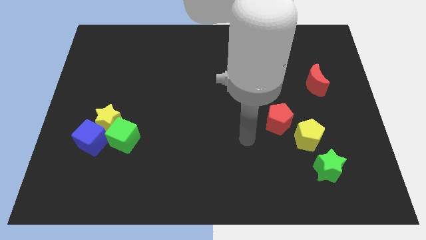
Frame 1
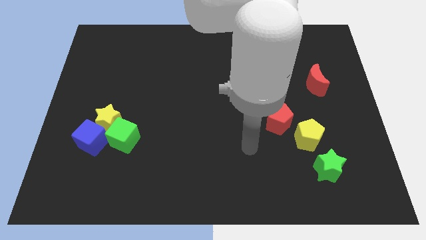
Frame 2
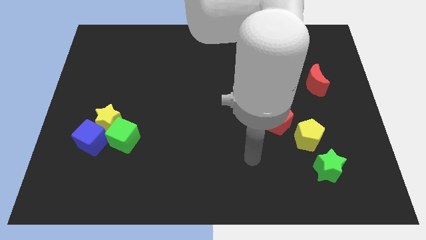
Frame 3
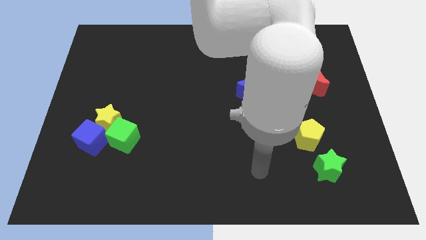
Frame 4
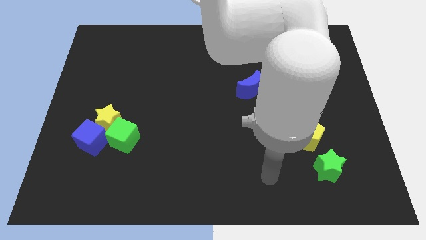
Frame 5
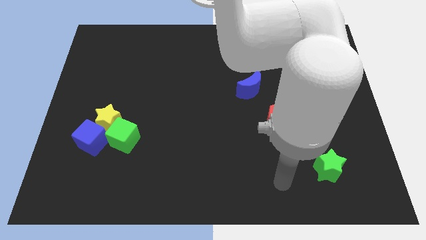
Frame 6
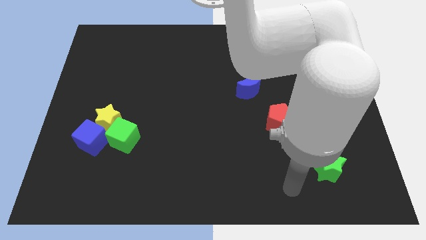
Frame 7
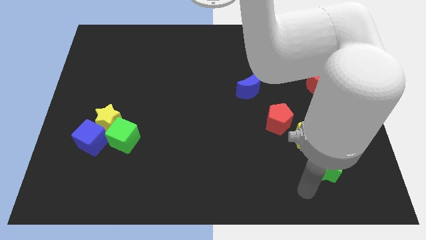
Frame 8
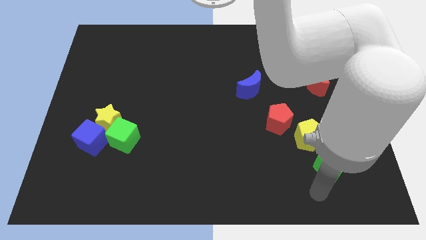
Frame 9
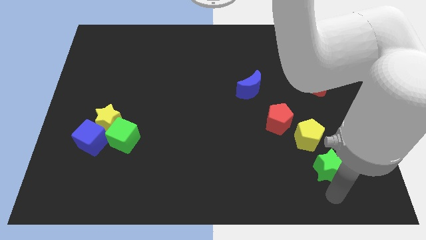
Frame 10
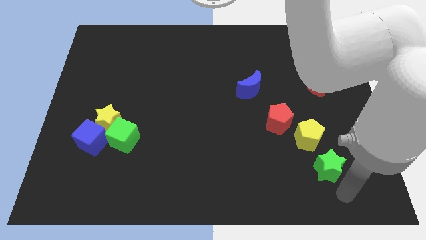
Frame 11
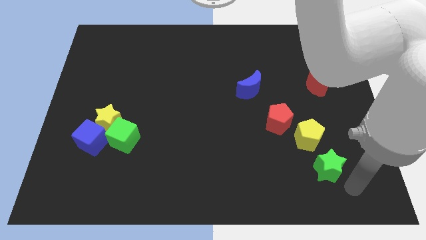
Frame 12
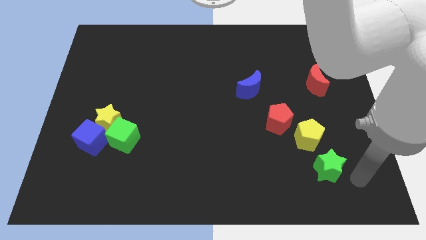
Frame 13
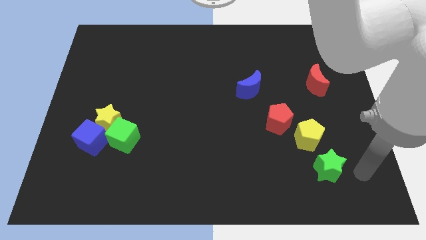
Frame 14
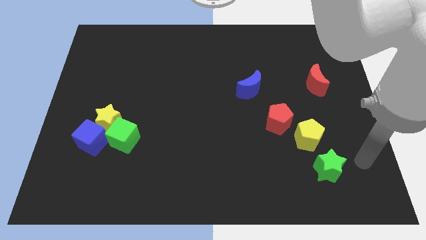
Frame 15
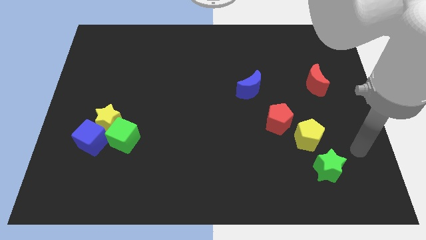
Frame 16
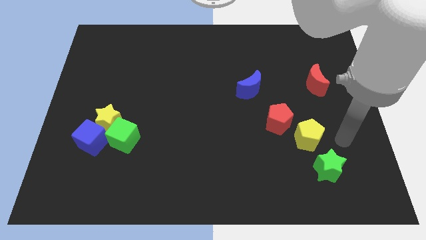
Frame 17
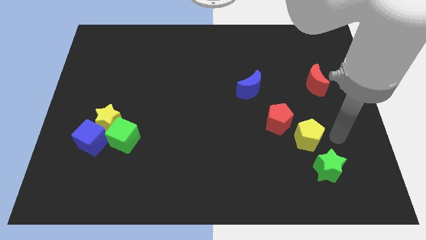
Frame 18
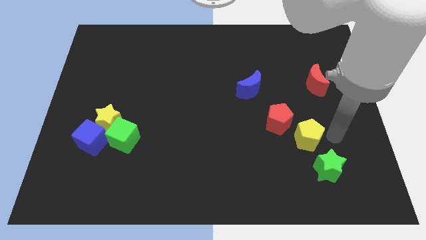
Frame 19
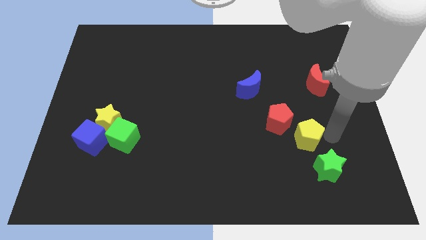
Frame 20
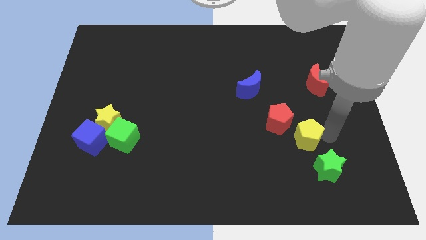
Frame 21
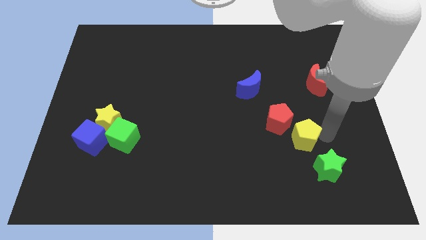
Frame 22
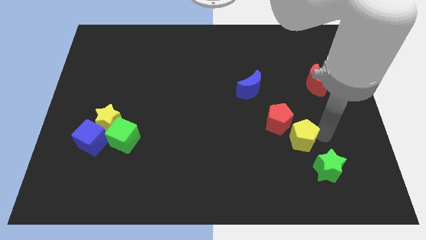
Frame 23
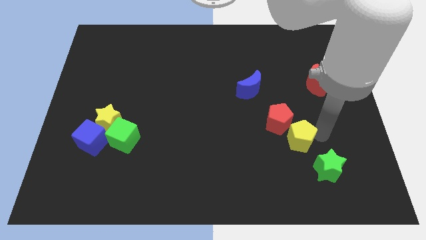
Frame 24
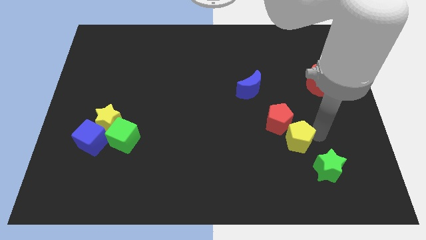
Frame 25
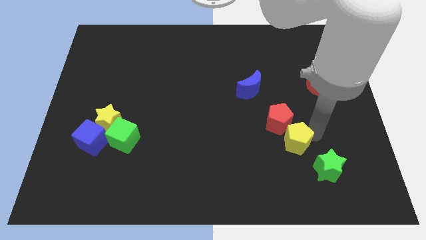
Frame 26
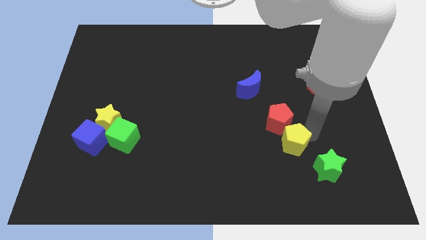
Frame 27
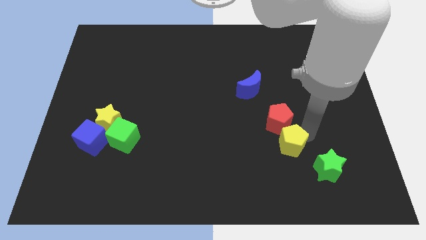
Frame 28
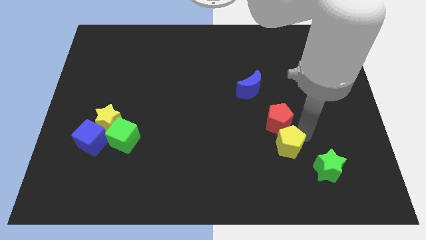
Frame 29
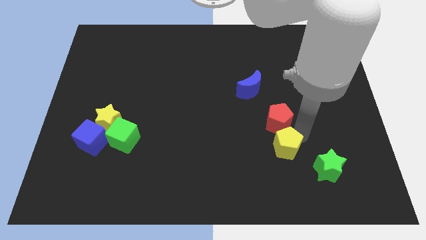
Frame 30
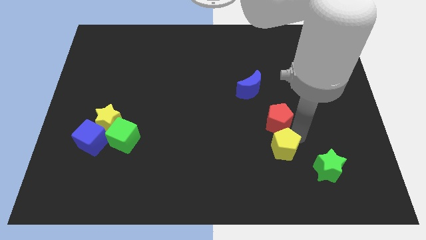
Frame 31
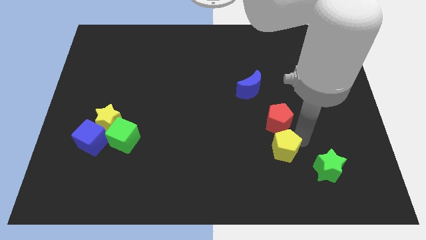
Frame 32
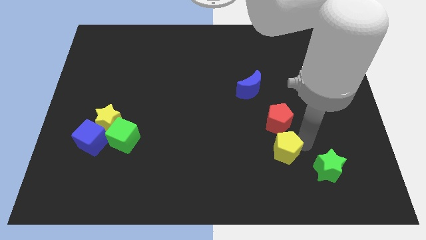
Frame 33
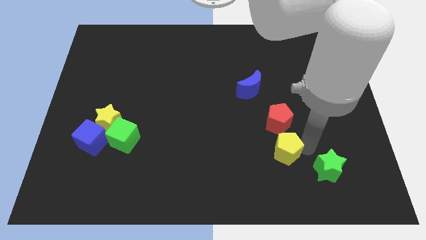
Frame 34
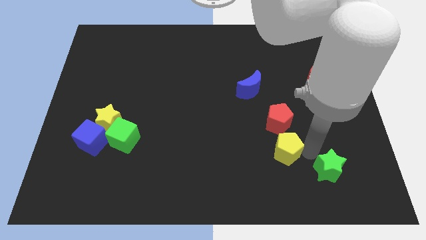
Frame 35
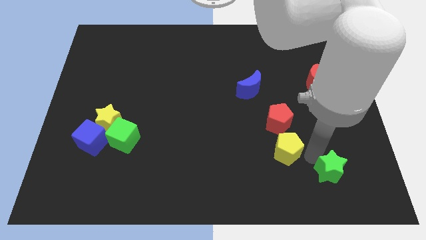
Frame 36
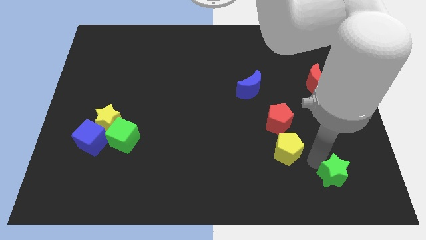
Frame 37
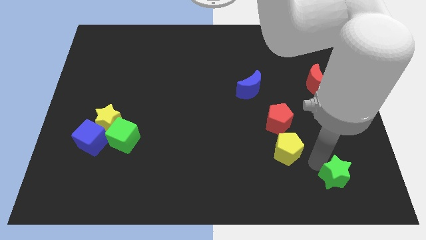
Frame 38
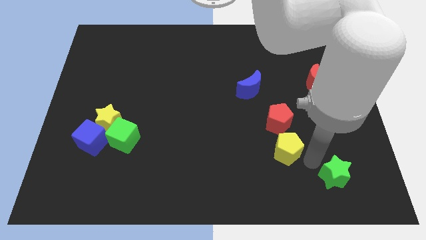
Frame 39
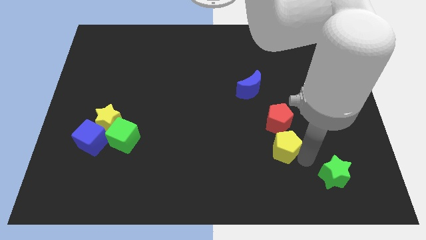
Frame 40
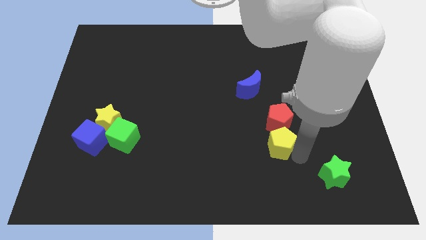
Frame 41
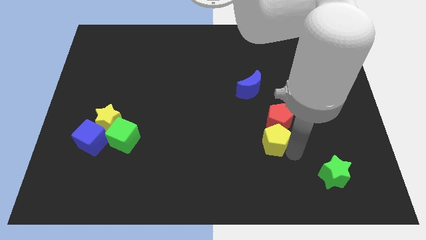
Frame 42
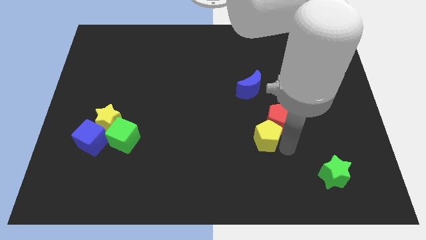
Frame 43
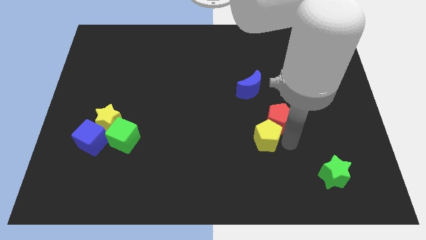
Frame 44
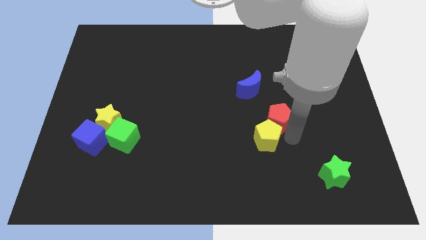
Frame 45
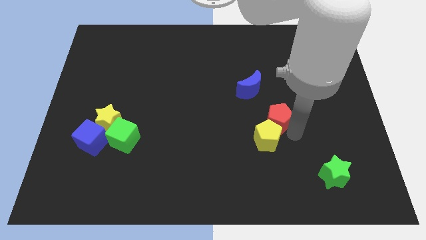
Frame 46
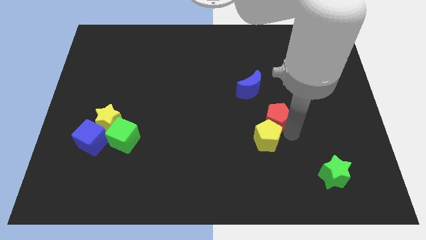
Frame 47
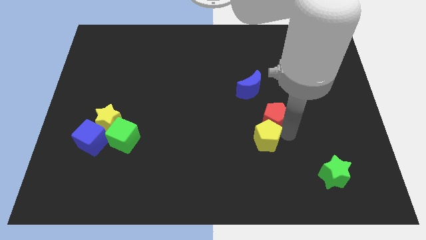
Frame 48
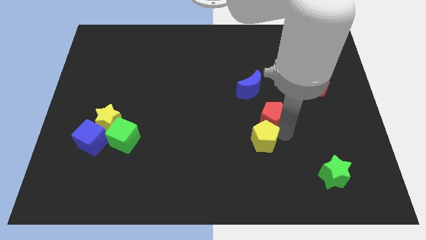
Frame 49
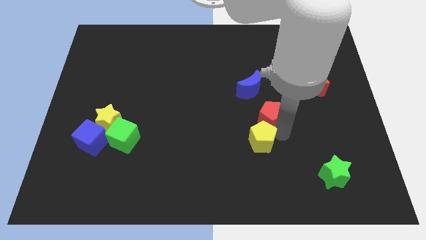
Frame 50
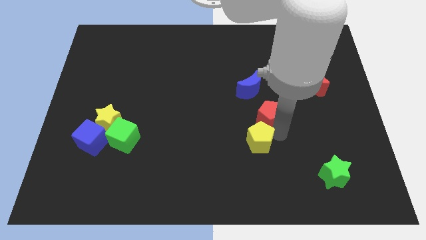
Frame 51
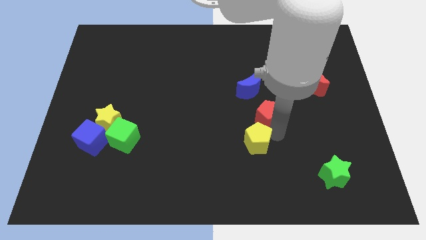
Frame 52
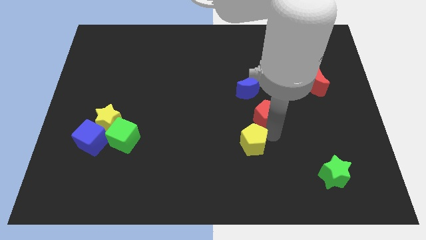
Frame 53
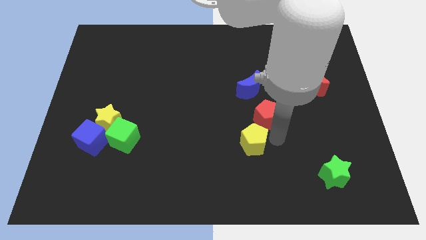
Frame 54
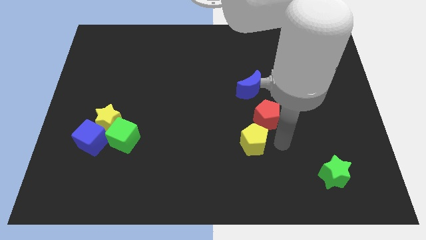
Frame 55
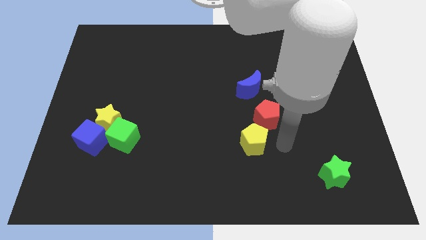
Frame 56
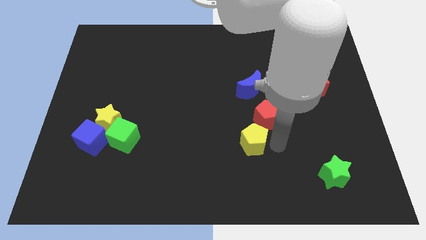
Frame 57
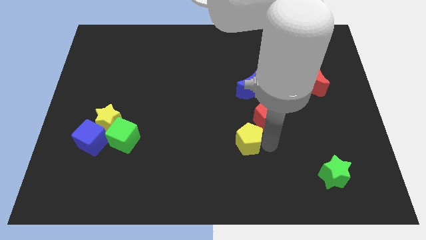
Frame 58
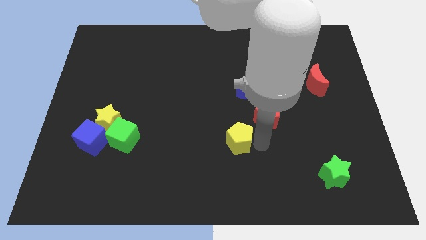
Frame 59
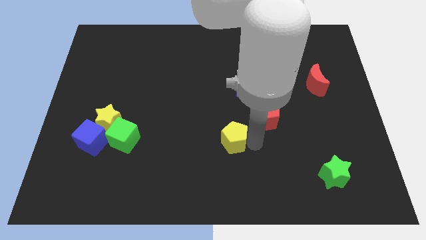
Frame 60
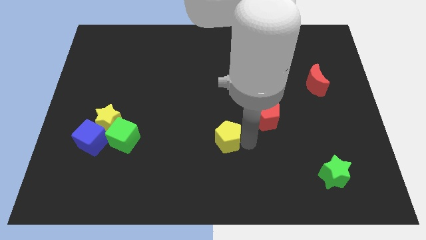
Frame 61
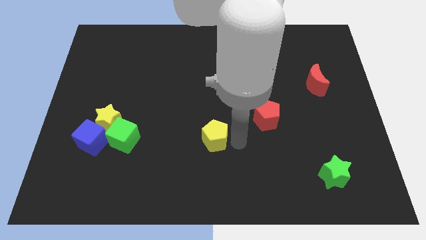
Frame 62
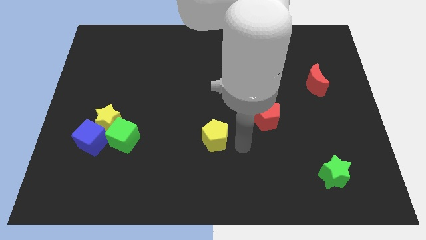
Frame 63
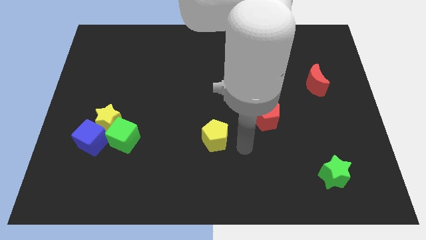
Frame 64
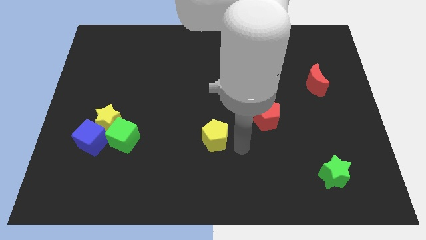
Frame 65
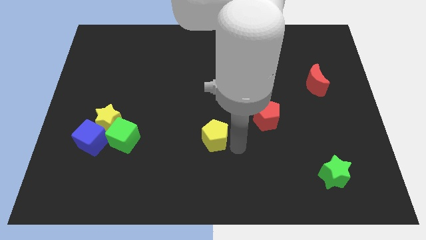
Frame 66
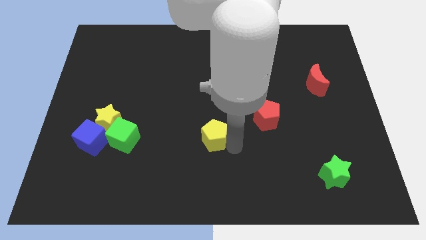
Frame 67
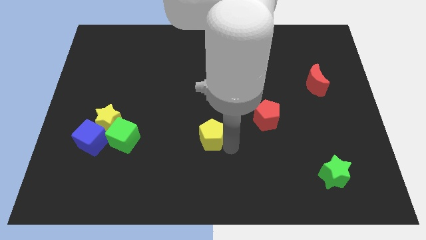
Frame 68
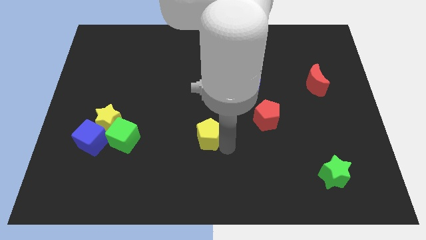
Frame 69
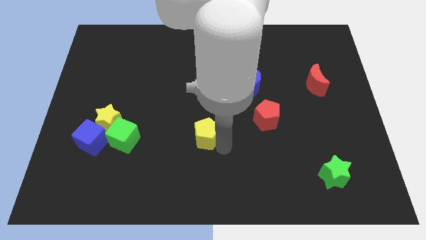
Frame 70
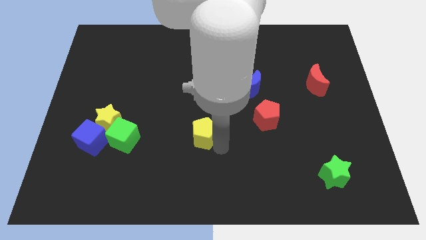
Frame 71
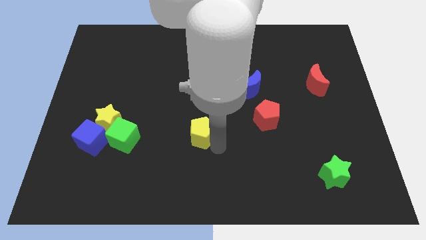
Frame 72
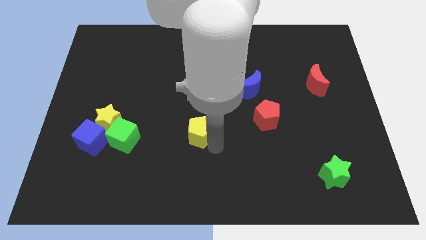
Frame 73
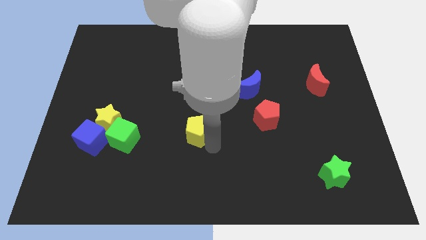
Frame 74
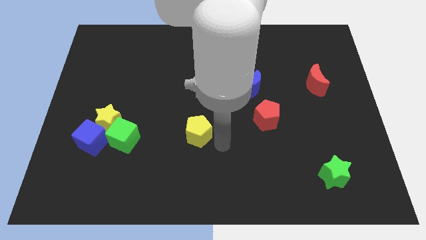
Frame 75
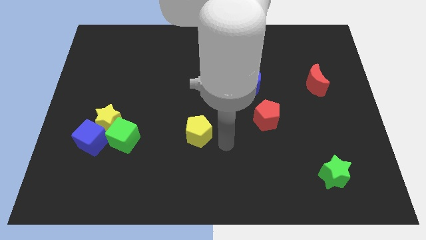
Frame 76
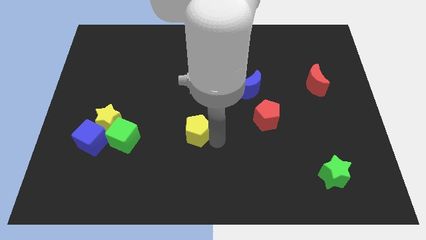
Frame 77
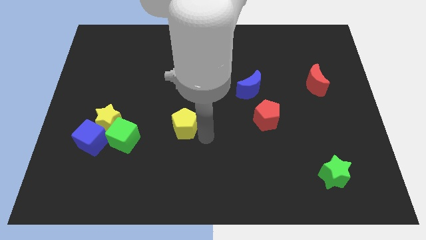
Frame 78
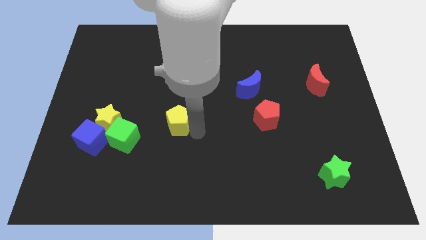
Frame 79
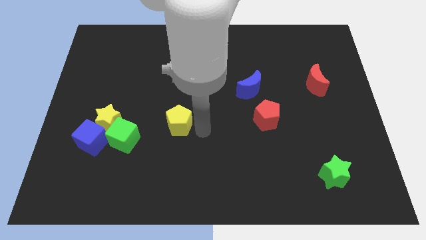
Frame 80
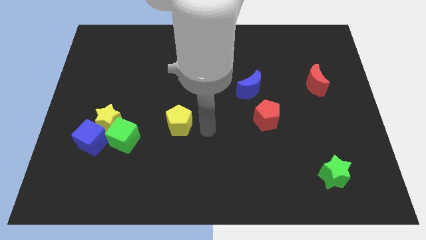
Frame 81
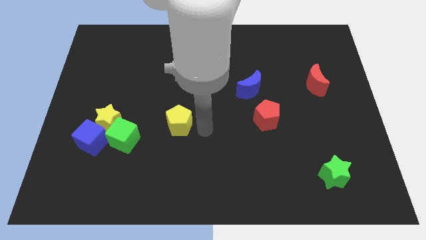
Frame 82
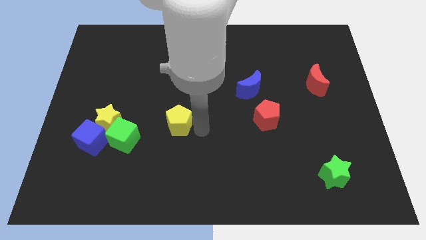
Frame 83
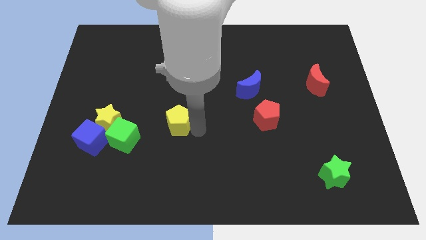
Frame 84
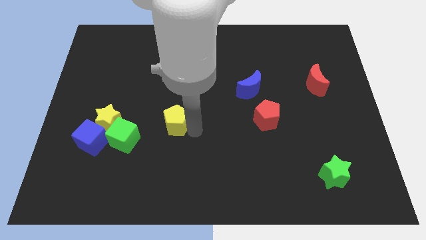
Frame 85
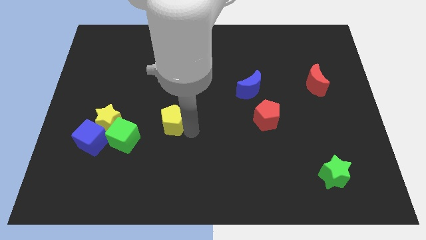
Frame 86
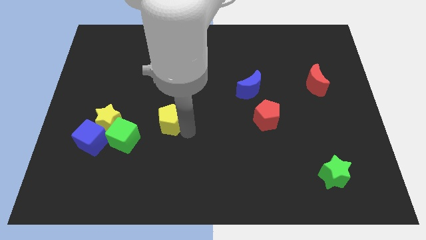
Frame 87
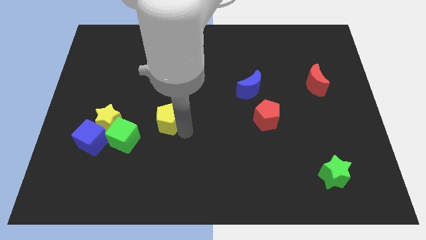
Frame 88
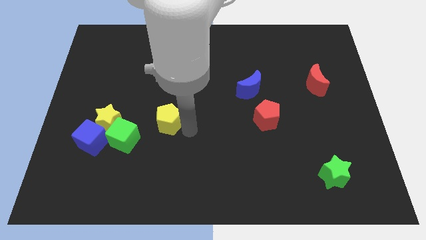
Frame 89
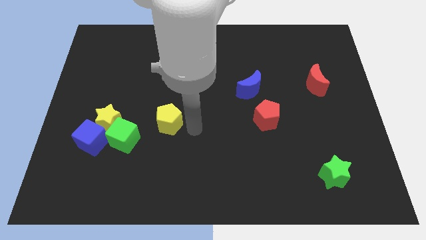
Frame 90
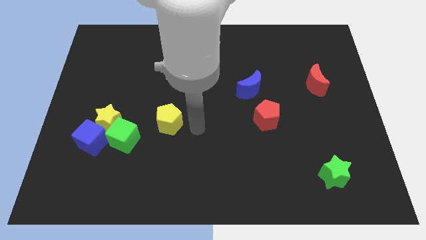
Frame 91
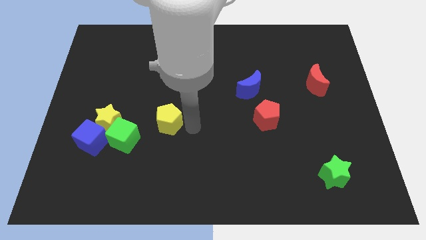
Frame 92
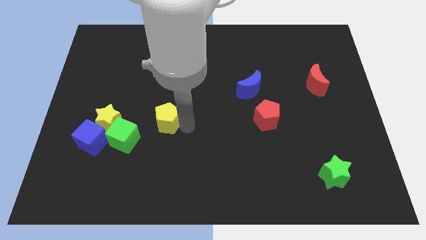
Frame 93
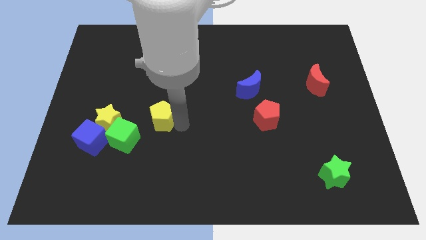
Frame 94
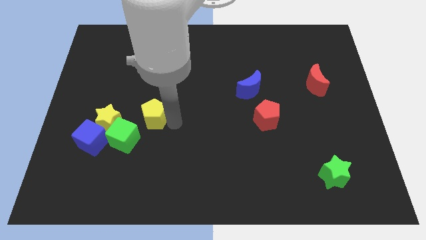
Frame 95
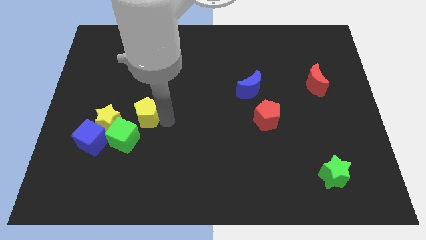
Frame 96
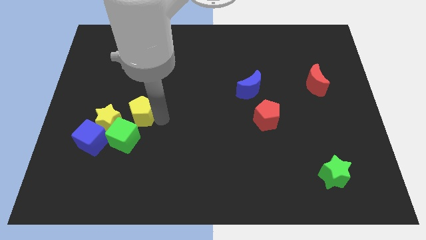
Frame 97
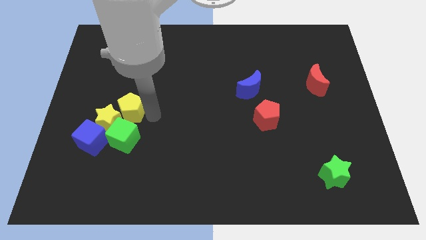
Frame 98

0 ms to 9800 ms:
move the yellow pentagon to the yellow star
